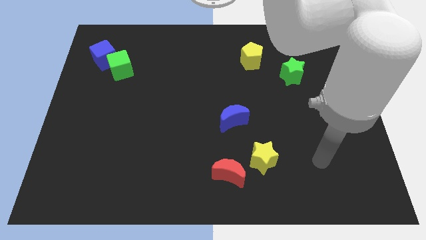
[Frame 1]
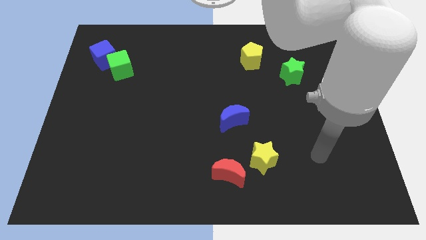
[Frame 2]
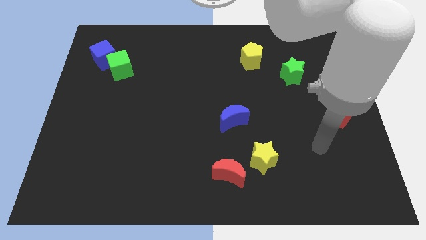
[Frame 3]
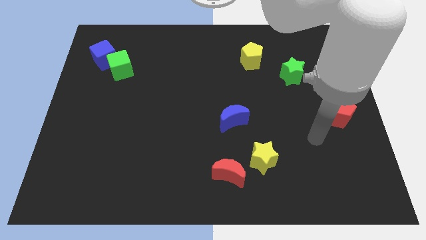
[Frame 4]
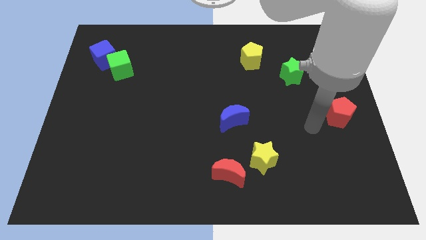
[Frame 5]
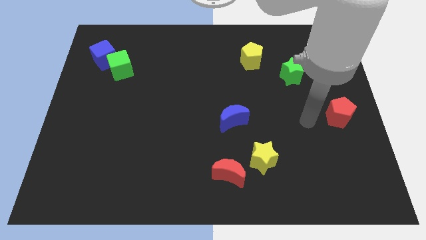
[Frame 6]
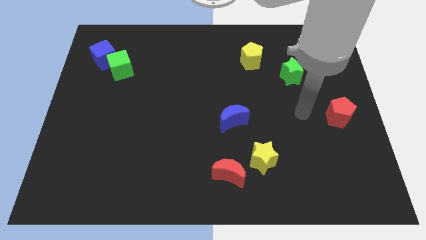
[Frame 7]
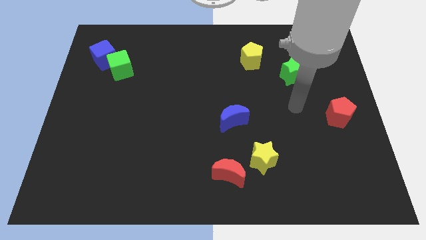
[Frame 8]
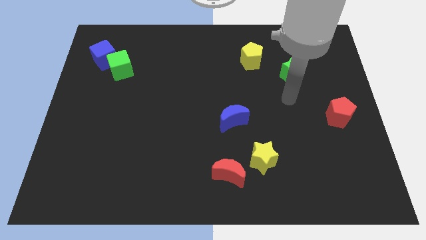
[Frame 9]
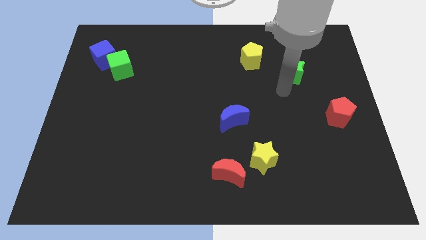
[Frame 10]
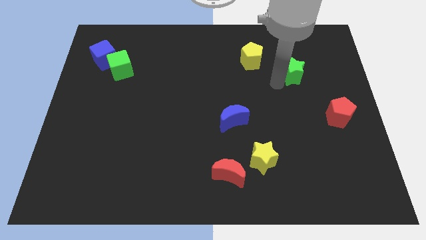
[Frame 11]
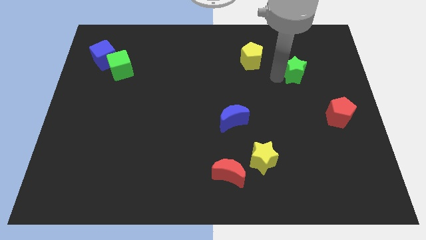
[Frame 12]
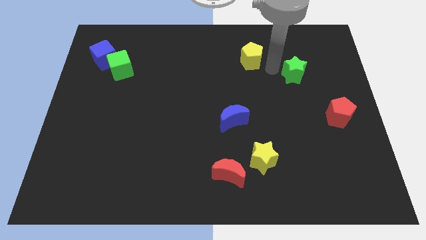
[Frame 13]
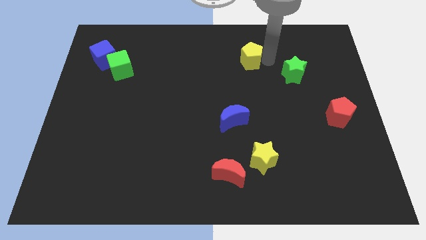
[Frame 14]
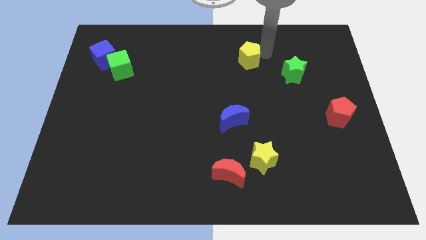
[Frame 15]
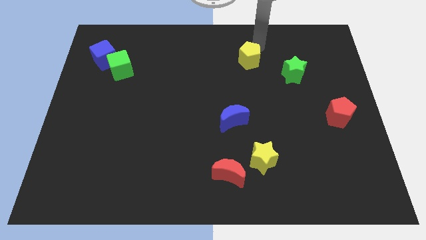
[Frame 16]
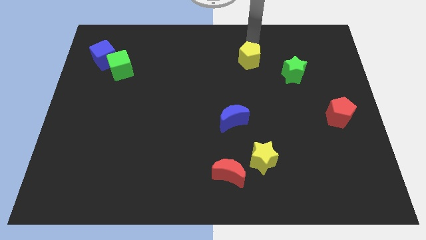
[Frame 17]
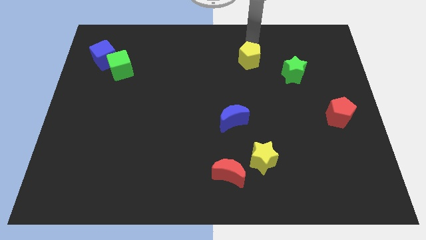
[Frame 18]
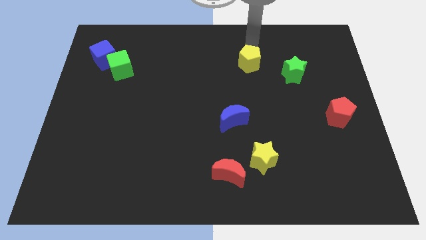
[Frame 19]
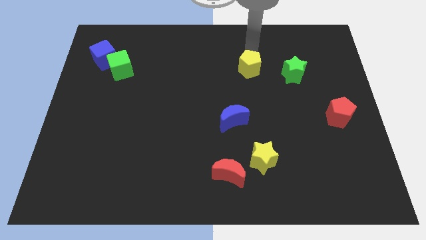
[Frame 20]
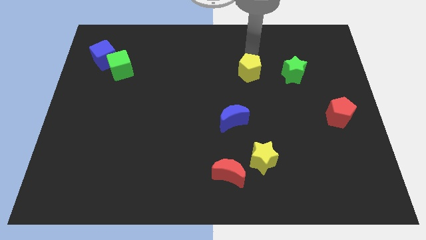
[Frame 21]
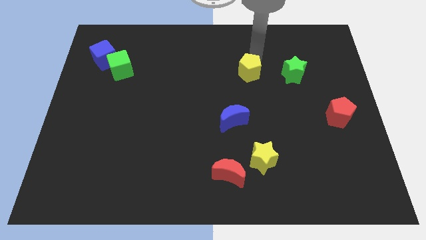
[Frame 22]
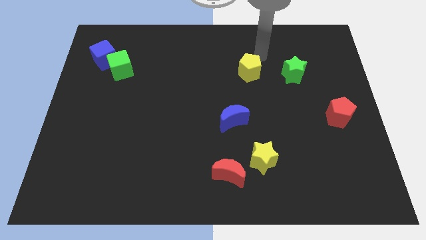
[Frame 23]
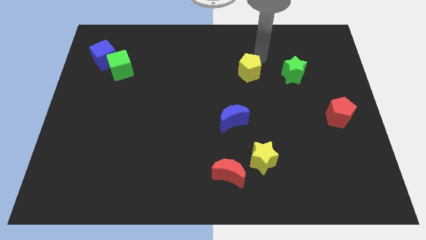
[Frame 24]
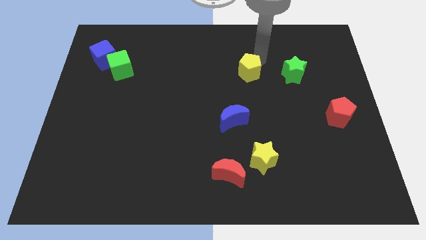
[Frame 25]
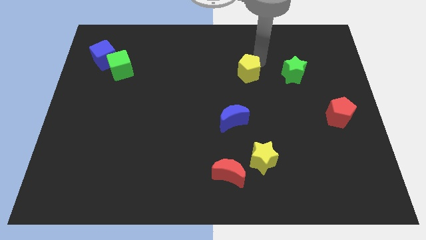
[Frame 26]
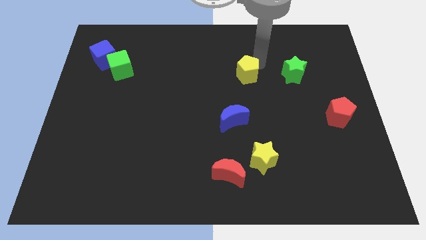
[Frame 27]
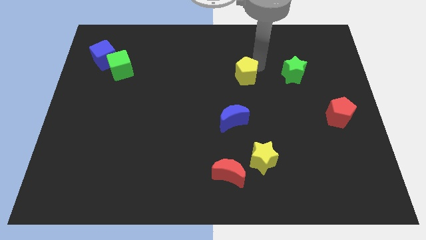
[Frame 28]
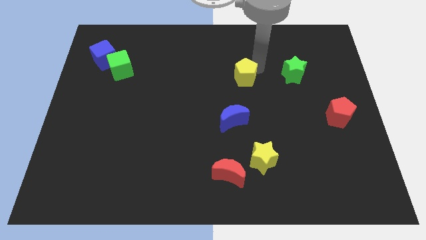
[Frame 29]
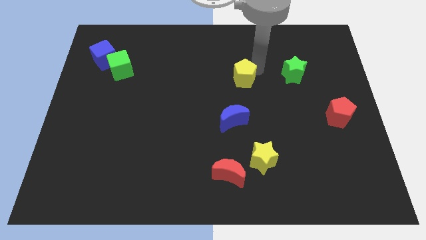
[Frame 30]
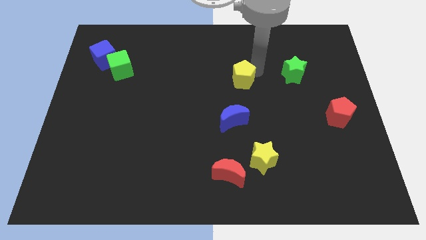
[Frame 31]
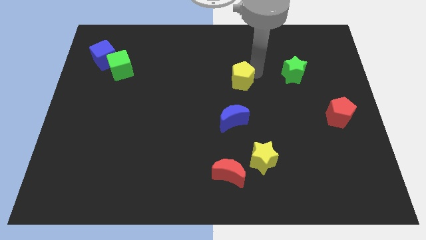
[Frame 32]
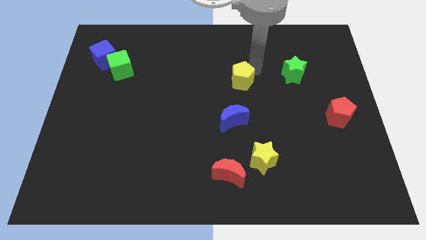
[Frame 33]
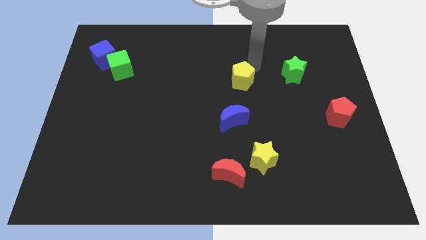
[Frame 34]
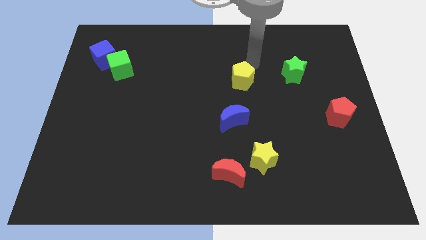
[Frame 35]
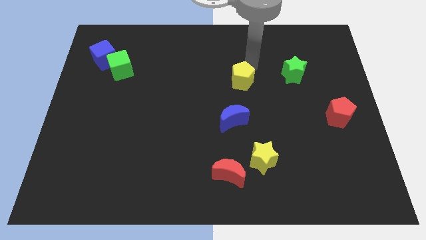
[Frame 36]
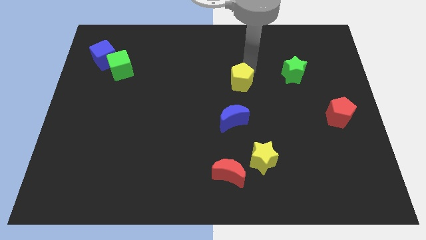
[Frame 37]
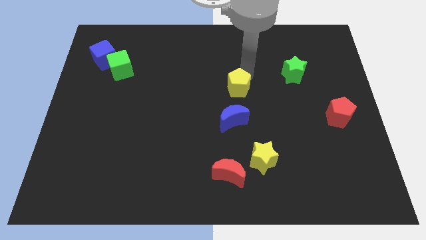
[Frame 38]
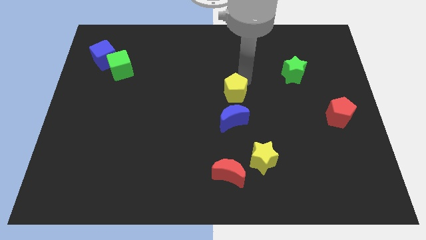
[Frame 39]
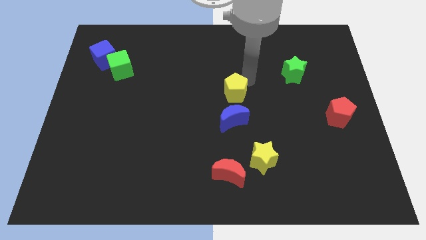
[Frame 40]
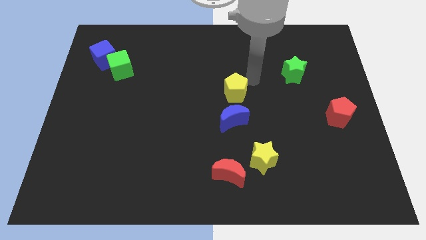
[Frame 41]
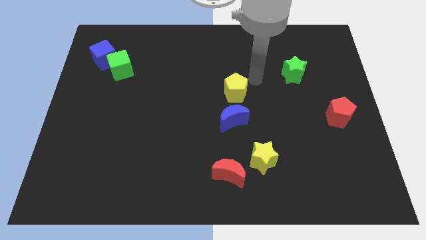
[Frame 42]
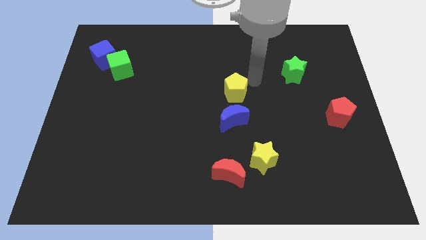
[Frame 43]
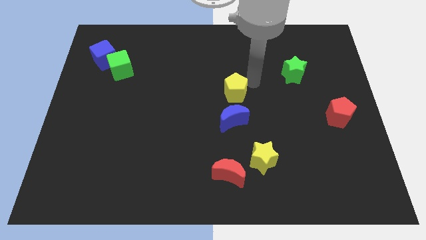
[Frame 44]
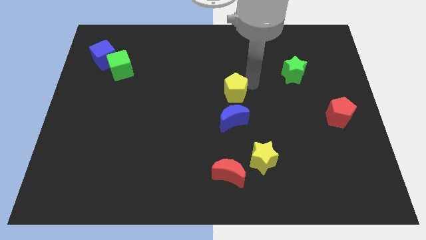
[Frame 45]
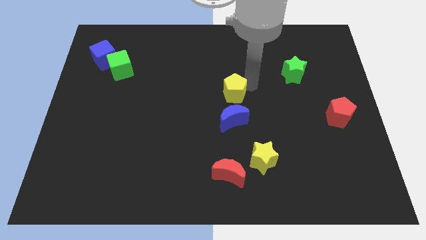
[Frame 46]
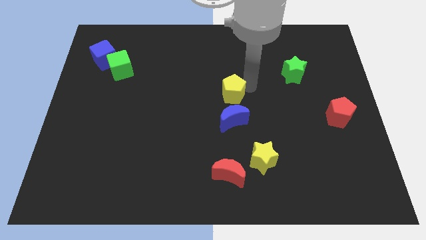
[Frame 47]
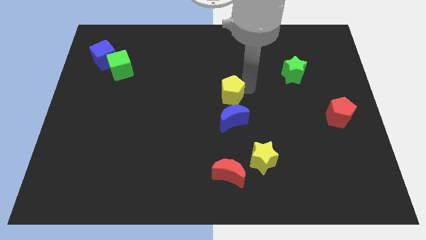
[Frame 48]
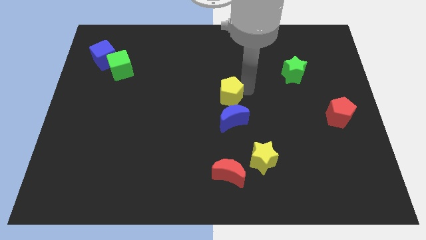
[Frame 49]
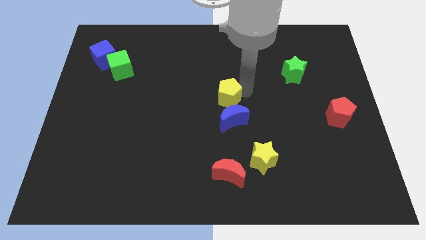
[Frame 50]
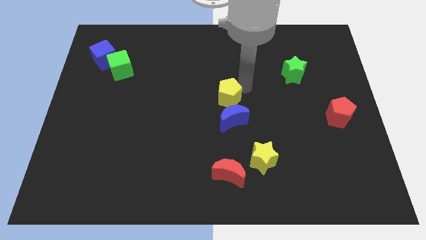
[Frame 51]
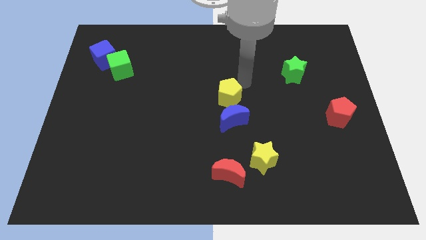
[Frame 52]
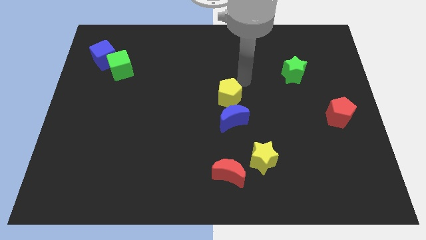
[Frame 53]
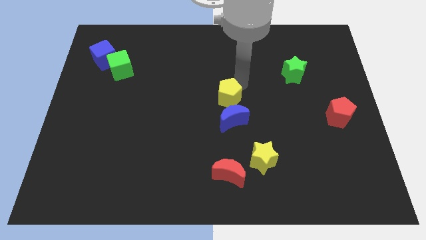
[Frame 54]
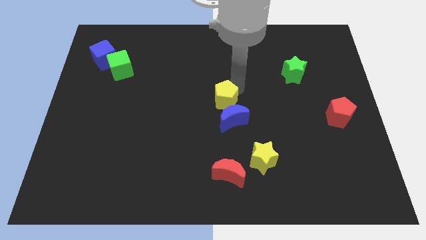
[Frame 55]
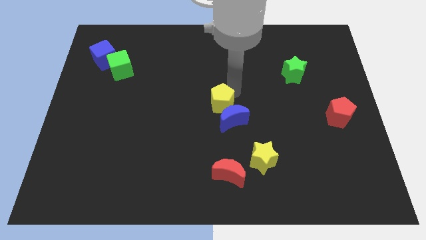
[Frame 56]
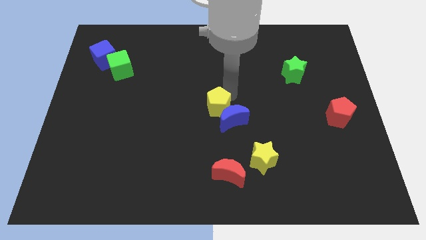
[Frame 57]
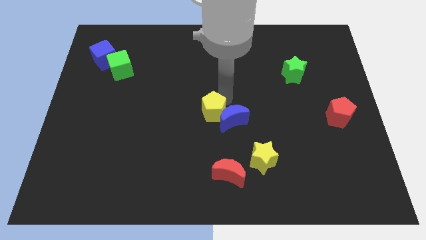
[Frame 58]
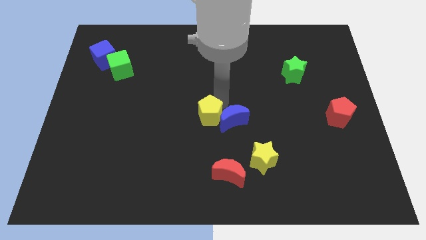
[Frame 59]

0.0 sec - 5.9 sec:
slide the yellow pentagon diagonally down and to the left of the blue moon
